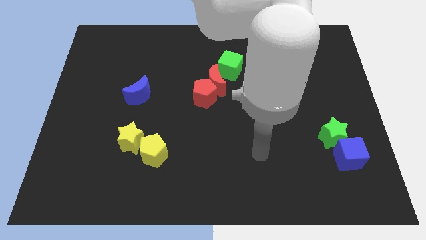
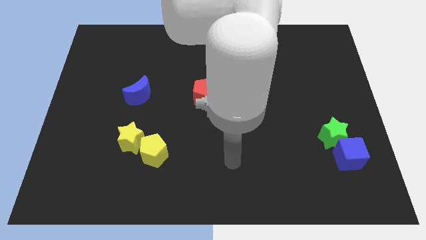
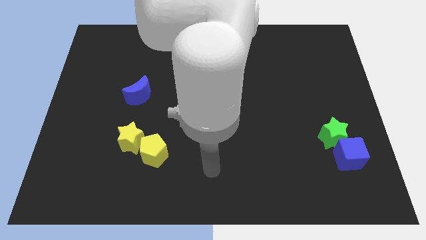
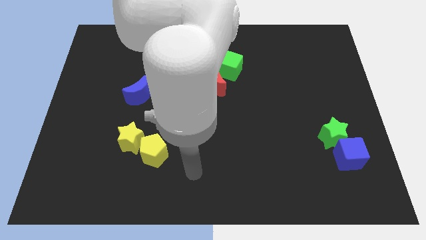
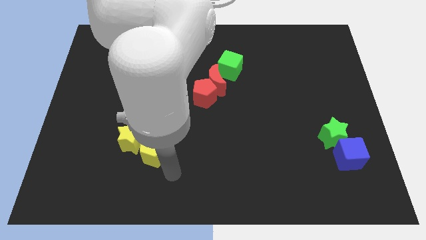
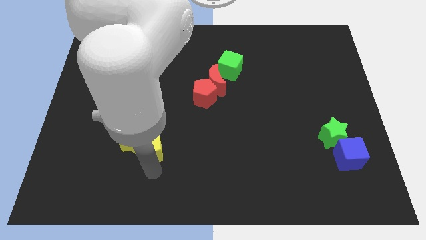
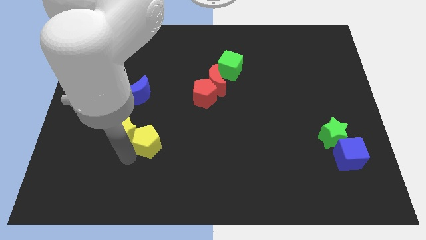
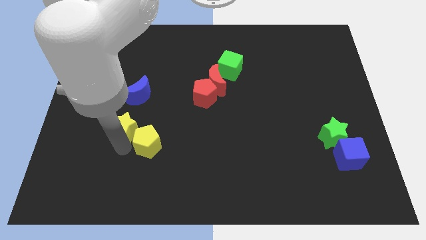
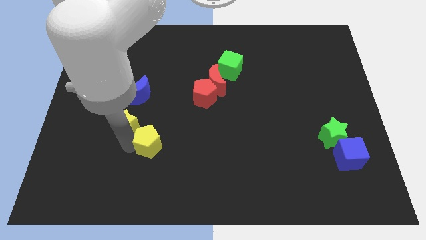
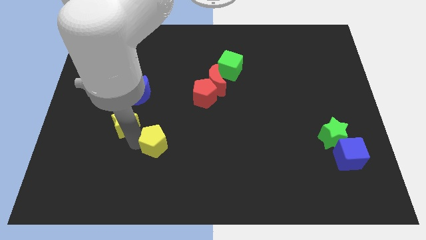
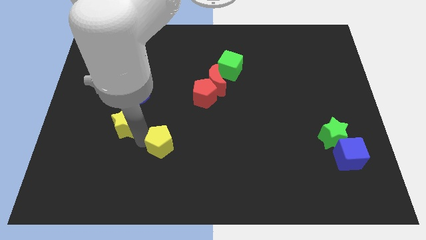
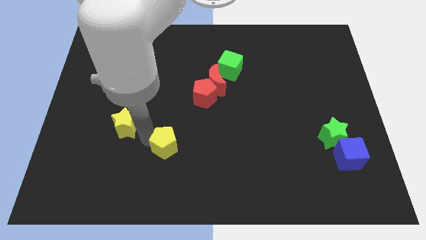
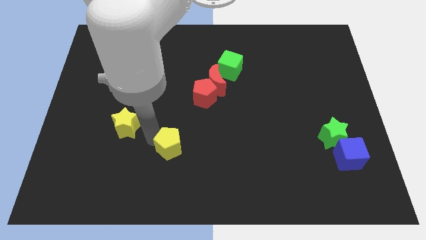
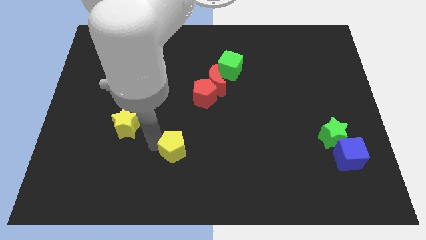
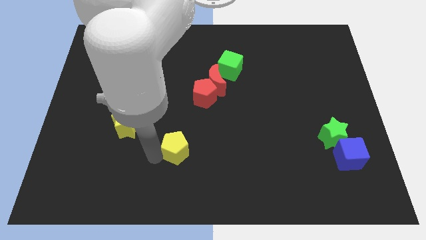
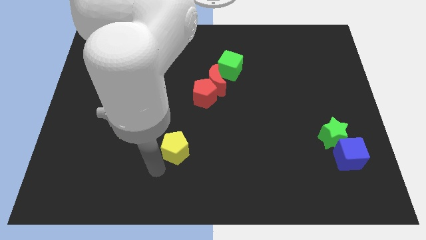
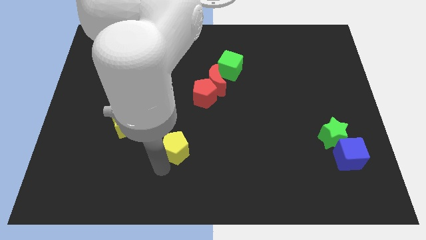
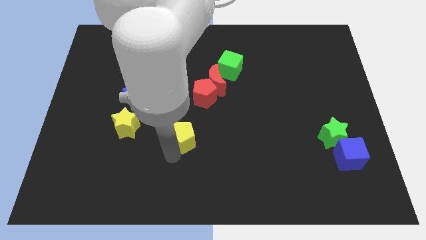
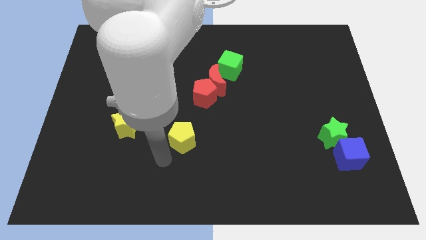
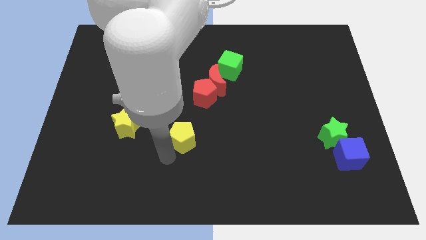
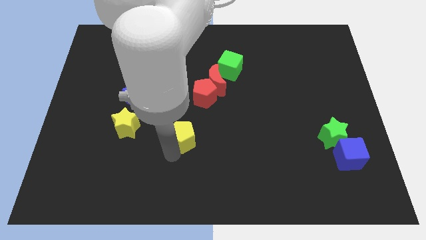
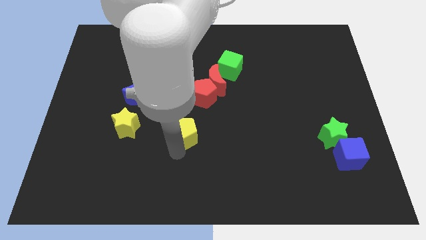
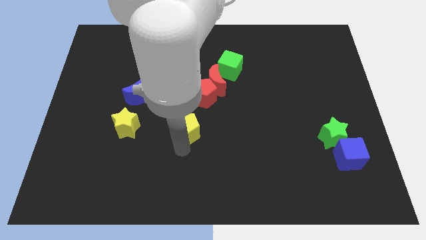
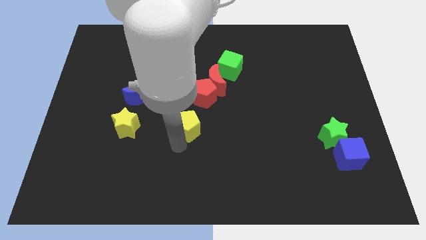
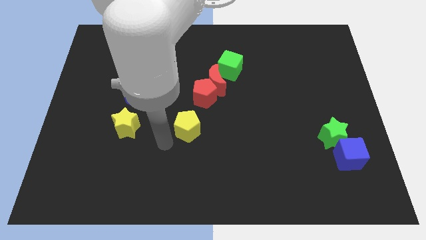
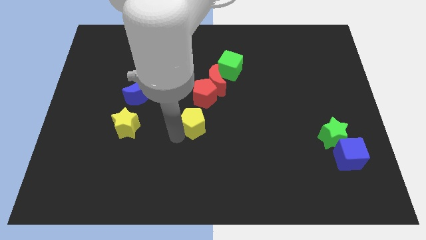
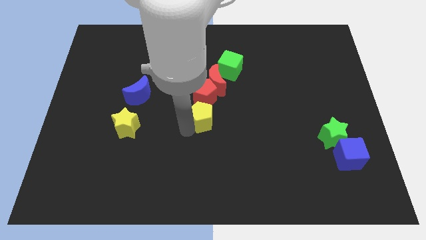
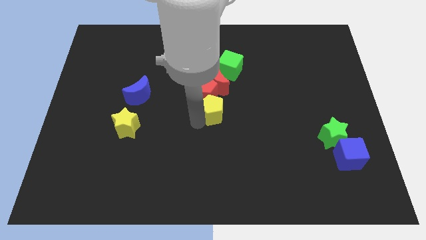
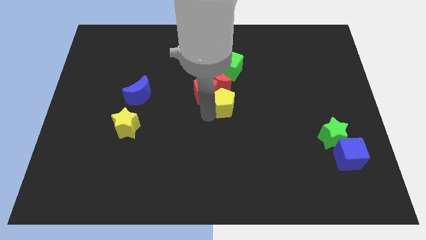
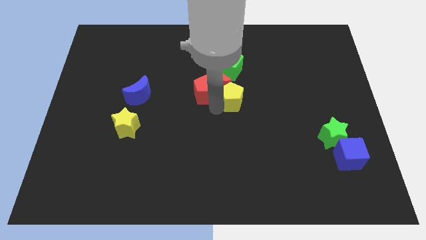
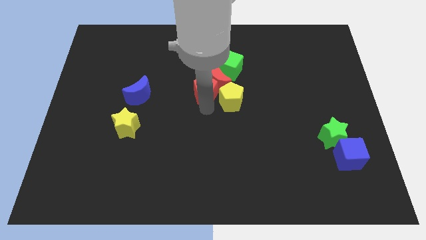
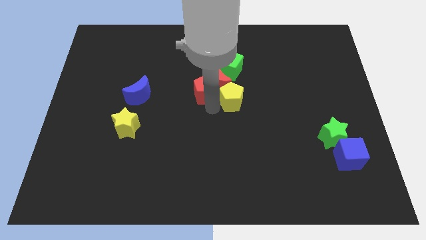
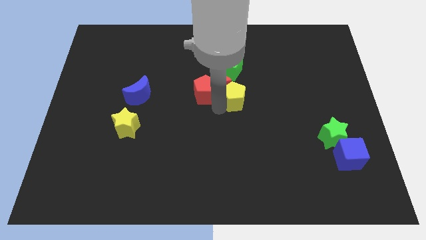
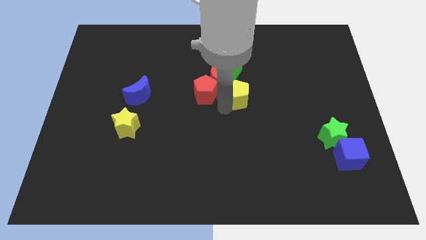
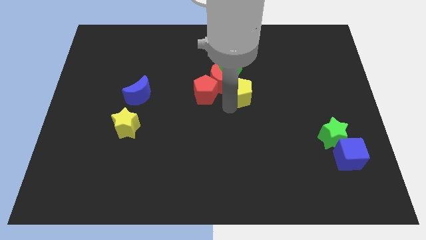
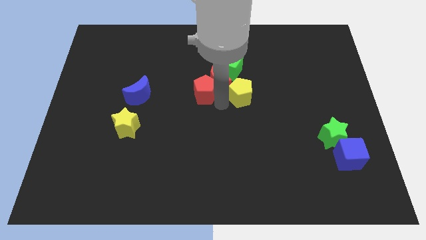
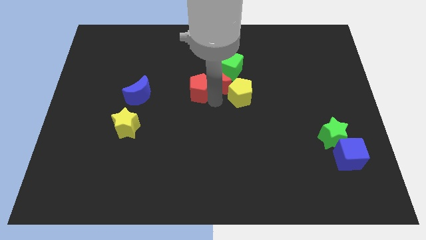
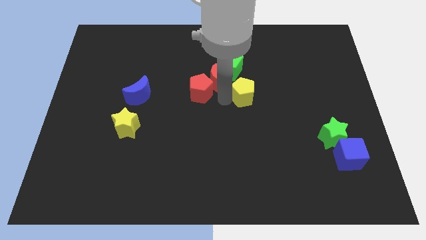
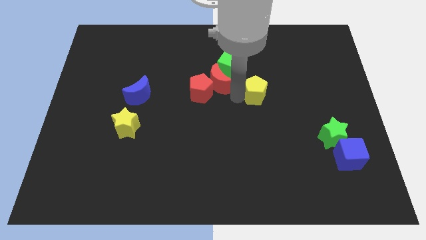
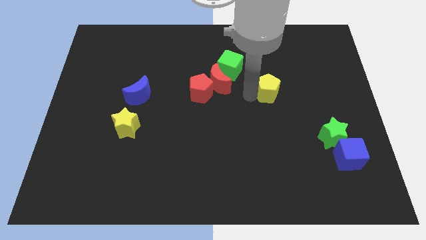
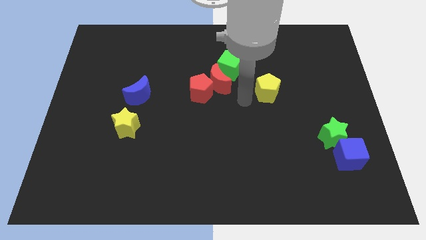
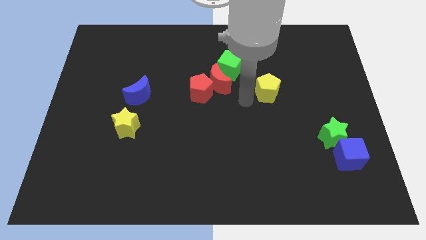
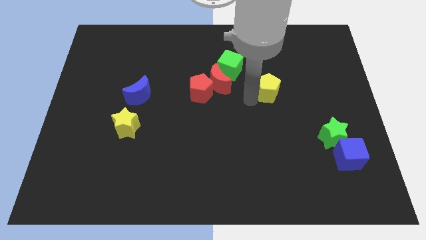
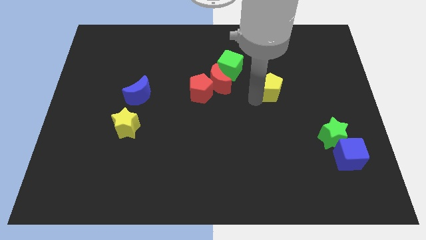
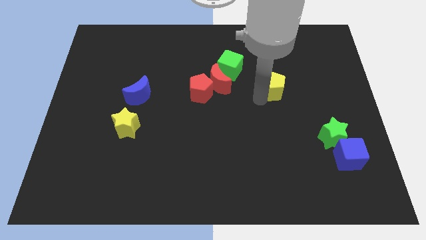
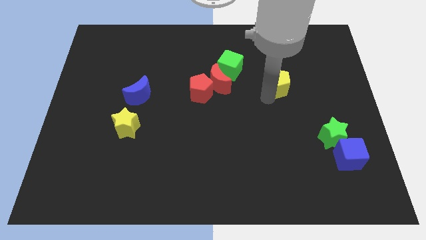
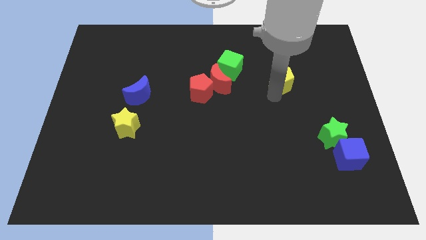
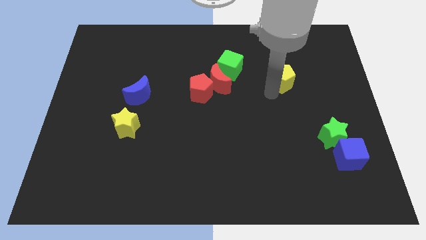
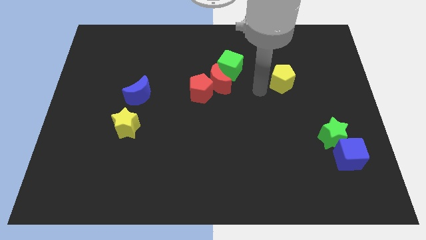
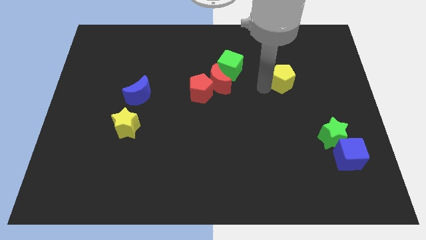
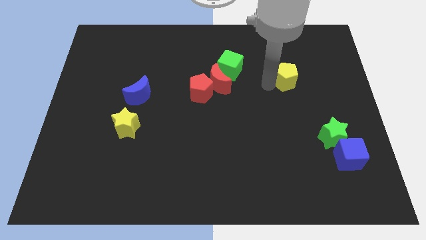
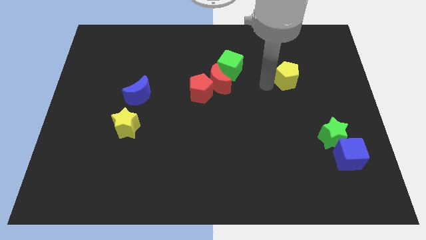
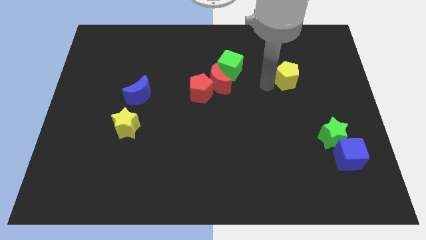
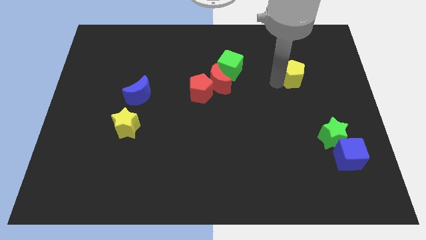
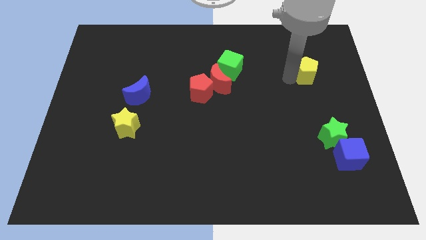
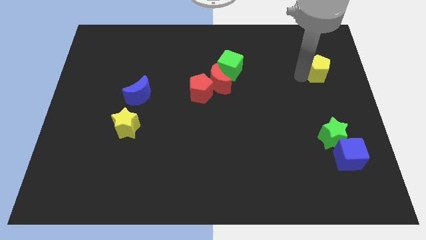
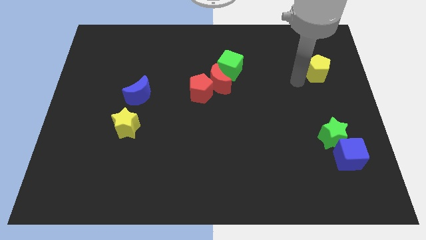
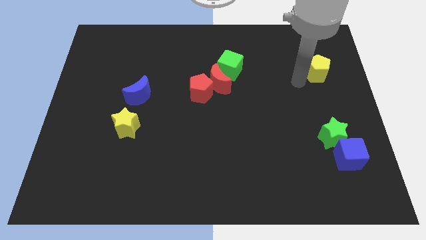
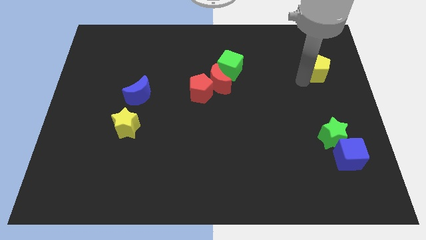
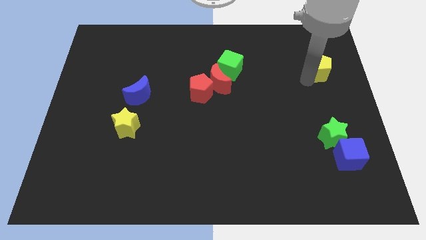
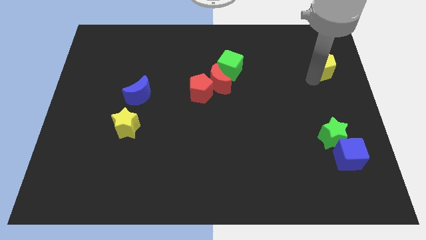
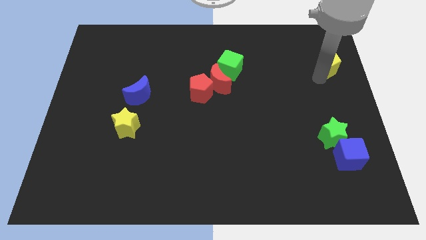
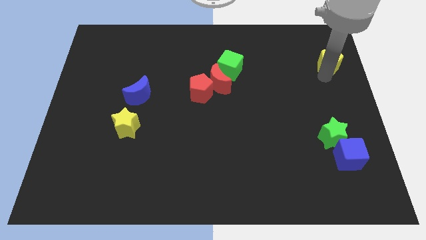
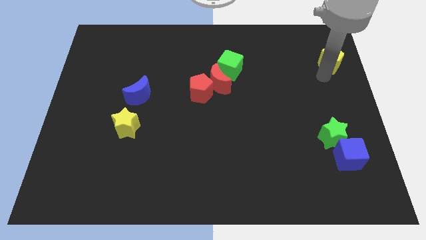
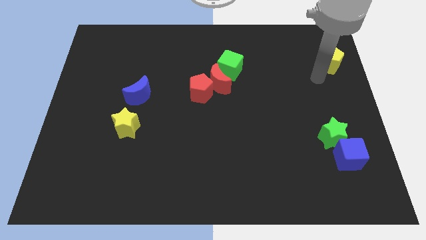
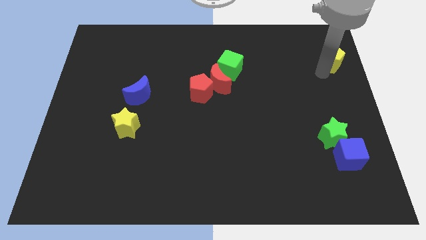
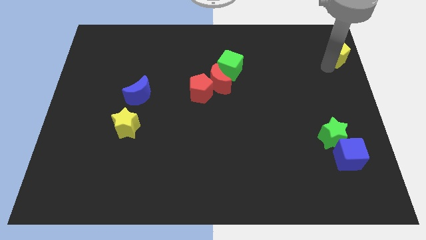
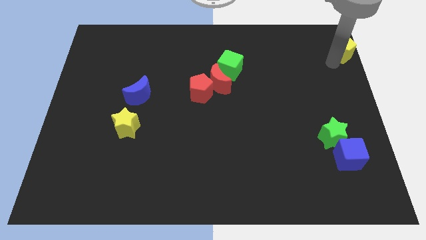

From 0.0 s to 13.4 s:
move the yellow pentagon to the upper right corner
